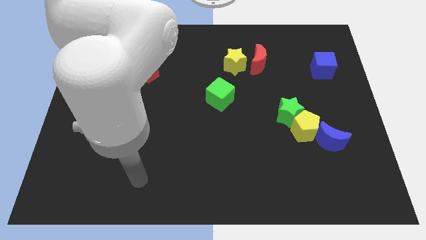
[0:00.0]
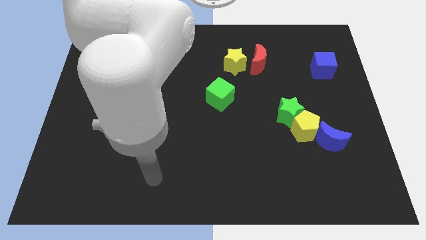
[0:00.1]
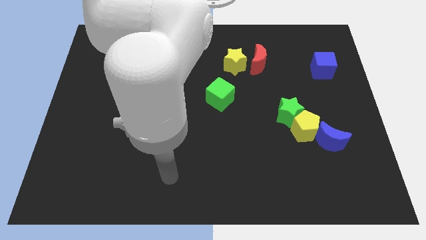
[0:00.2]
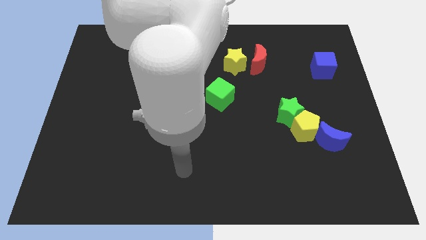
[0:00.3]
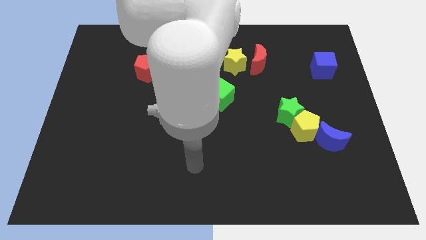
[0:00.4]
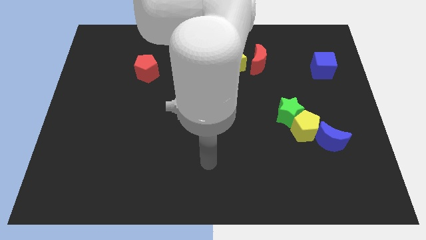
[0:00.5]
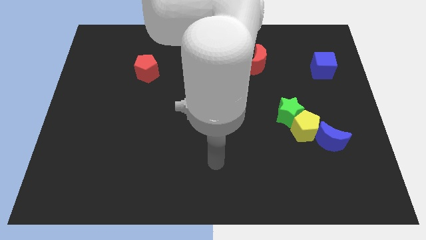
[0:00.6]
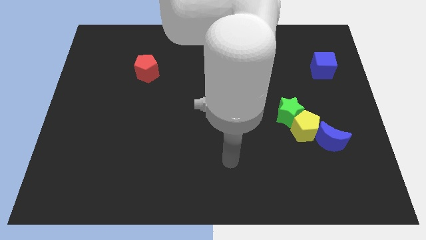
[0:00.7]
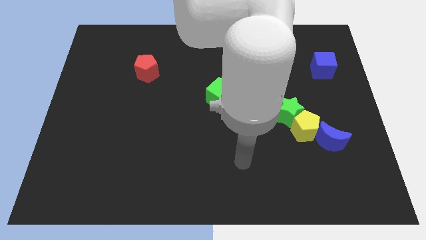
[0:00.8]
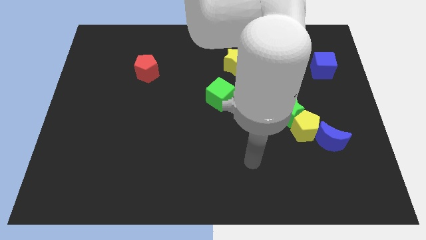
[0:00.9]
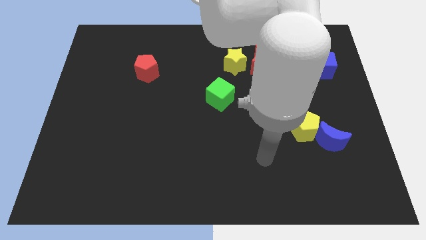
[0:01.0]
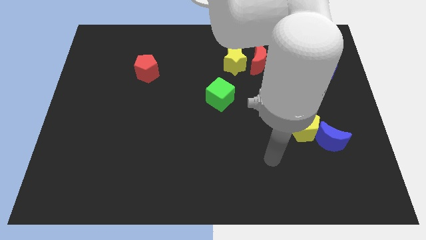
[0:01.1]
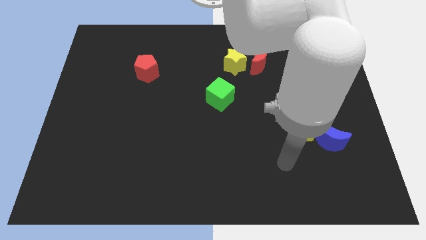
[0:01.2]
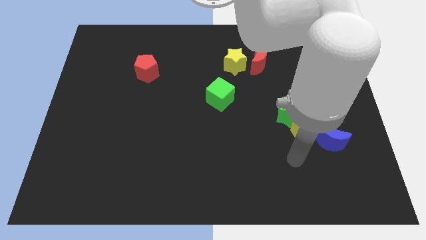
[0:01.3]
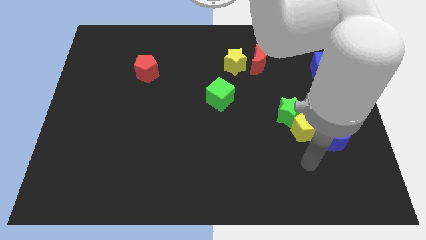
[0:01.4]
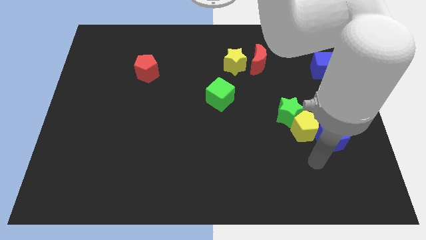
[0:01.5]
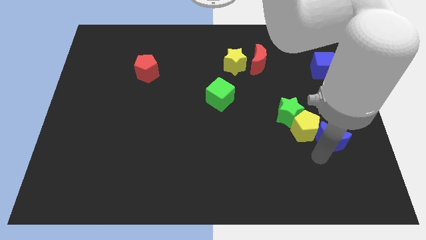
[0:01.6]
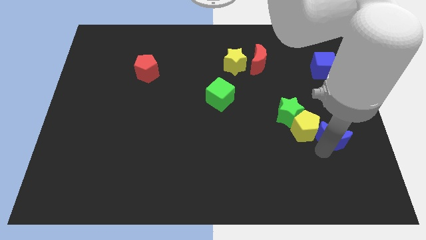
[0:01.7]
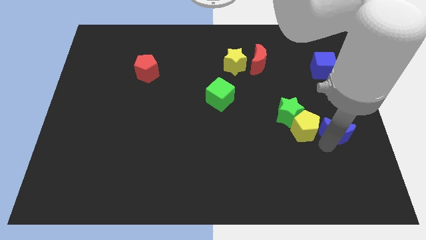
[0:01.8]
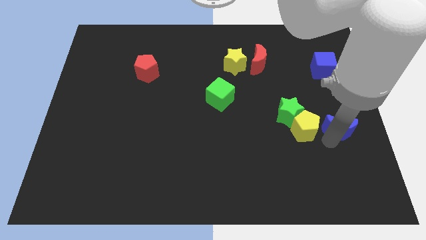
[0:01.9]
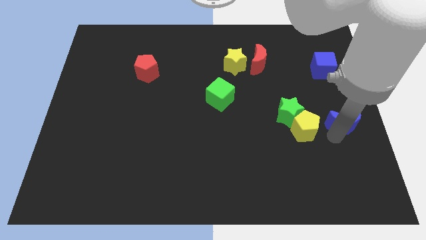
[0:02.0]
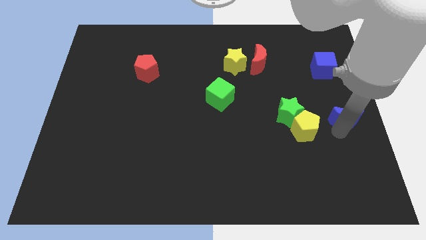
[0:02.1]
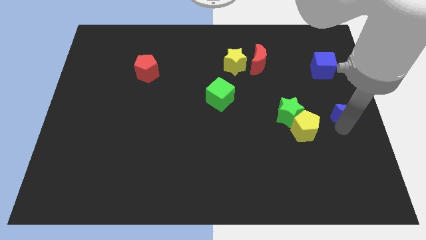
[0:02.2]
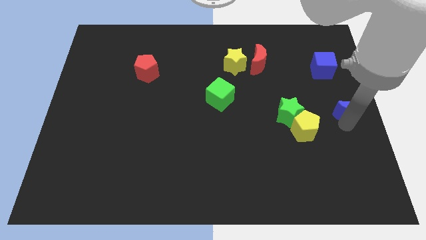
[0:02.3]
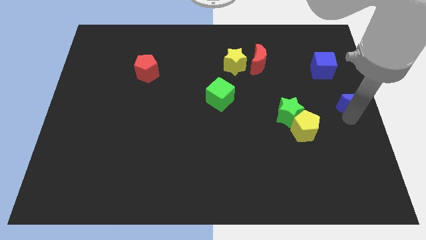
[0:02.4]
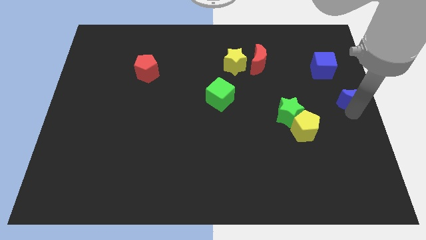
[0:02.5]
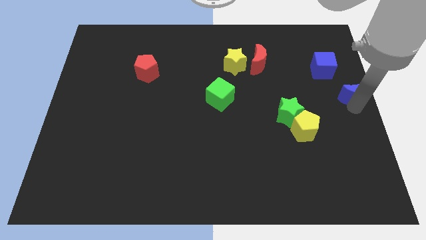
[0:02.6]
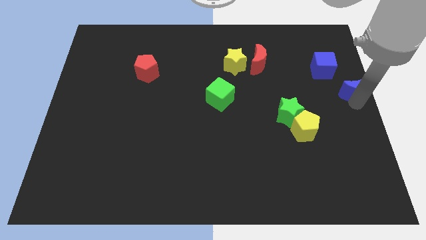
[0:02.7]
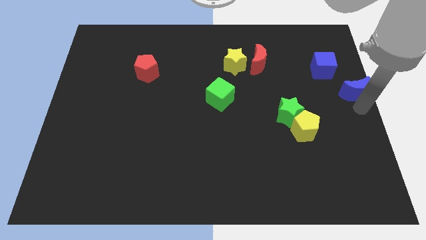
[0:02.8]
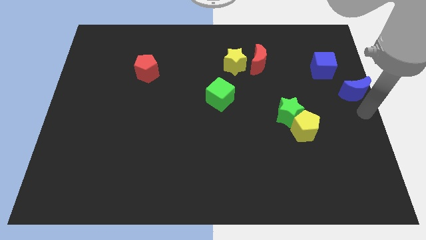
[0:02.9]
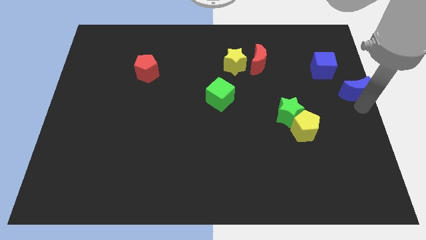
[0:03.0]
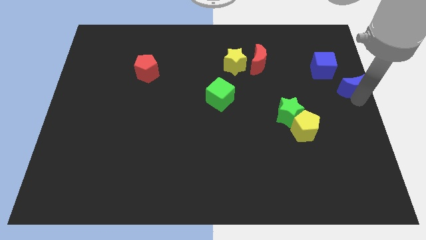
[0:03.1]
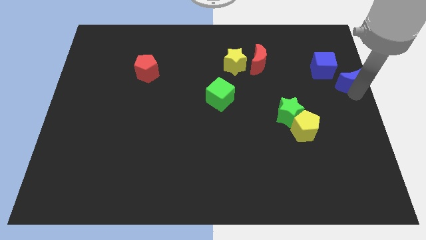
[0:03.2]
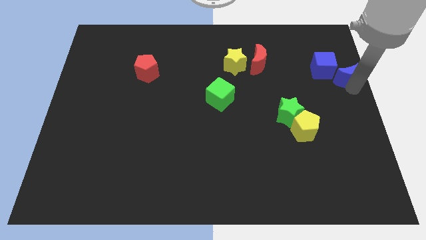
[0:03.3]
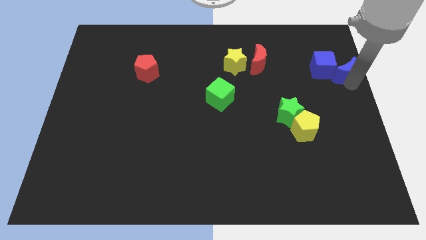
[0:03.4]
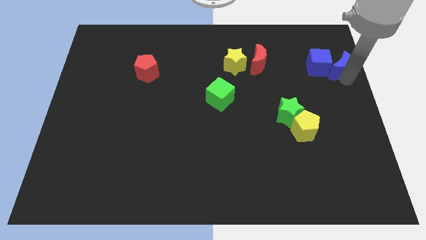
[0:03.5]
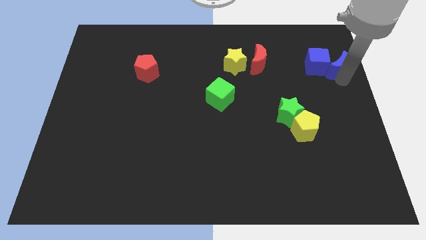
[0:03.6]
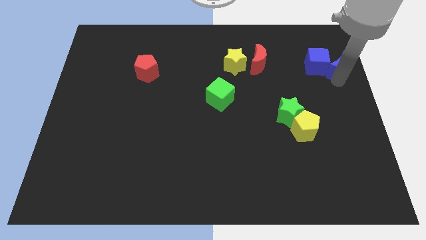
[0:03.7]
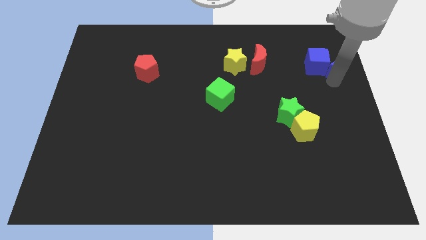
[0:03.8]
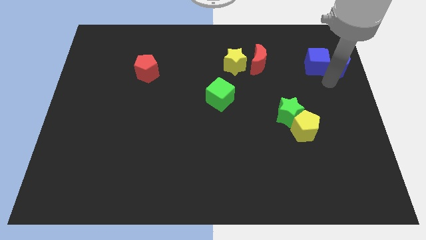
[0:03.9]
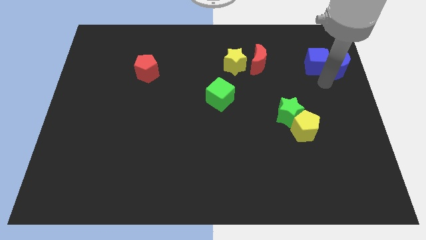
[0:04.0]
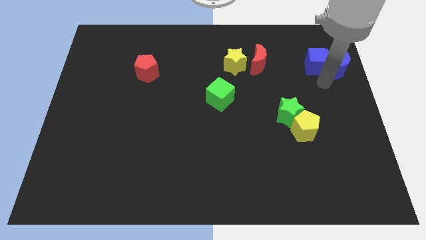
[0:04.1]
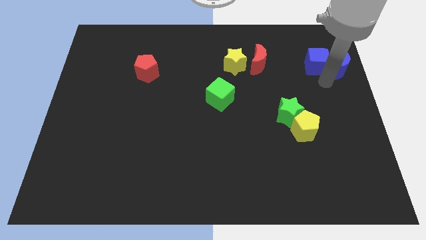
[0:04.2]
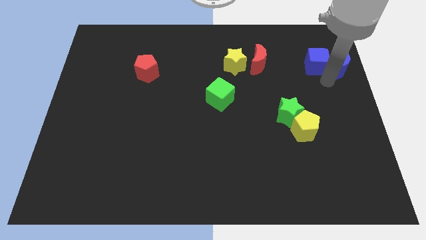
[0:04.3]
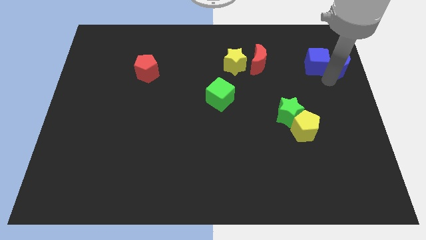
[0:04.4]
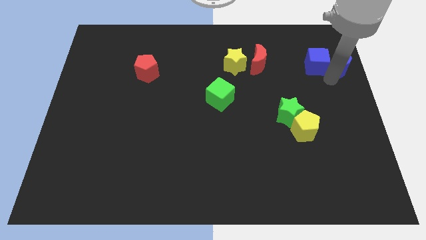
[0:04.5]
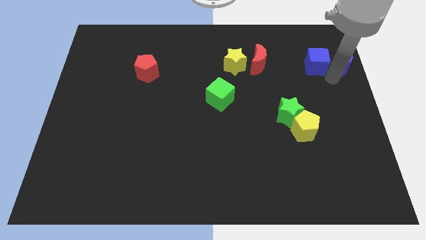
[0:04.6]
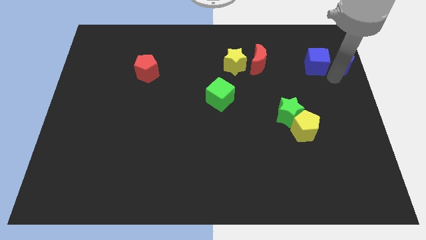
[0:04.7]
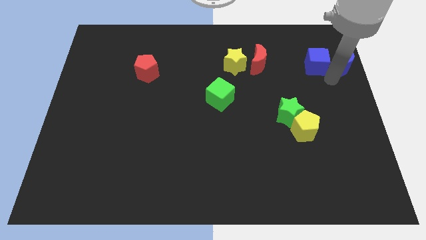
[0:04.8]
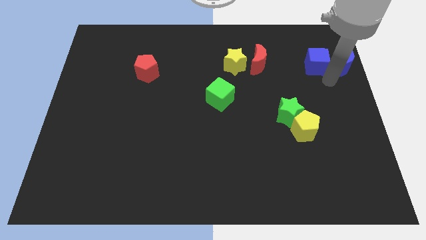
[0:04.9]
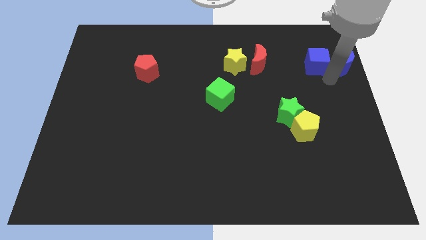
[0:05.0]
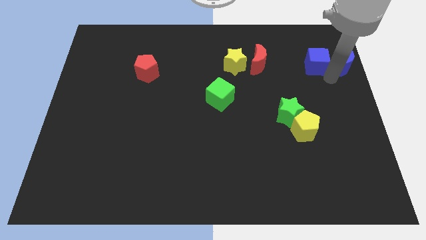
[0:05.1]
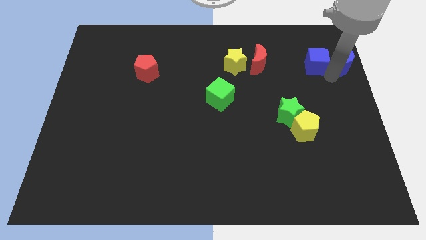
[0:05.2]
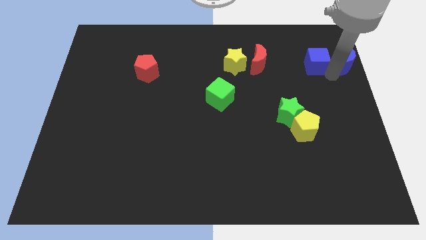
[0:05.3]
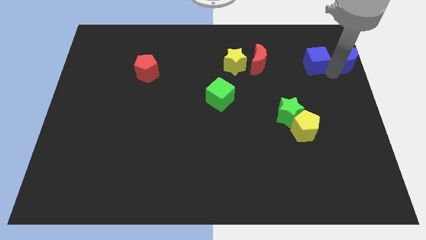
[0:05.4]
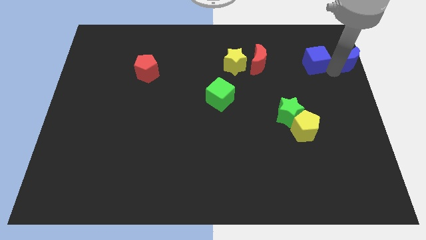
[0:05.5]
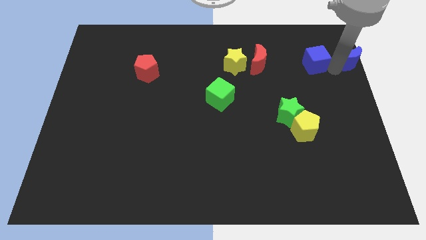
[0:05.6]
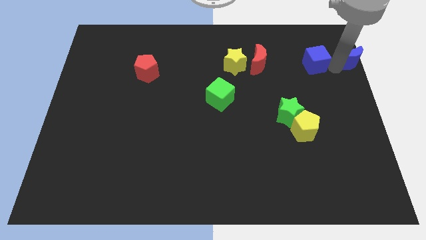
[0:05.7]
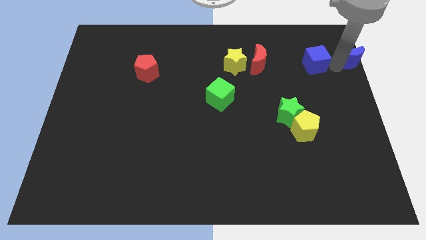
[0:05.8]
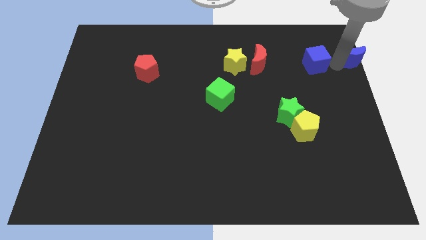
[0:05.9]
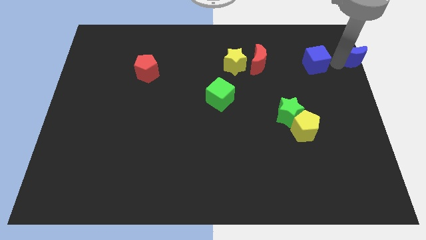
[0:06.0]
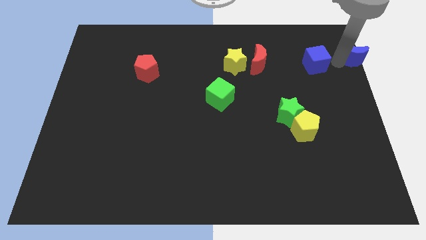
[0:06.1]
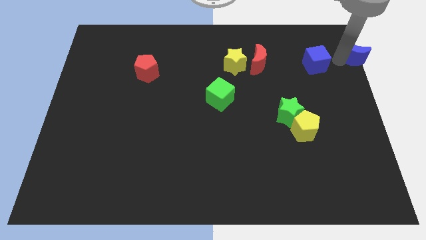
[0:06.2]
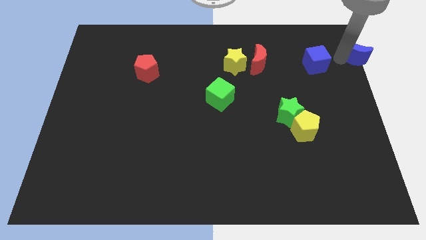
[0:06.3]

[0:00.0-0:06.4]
slide the blue moon to the upper right corner
